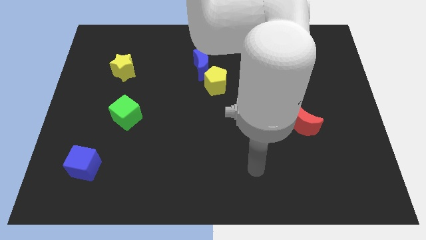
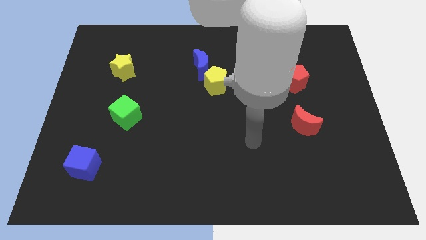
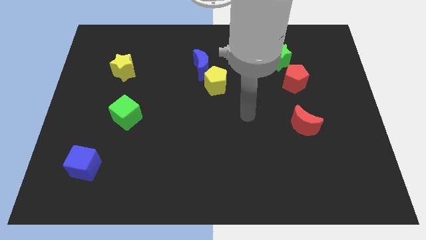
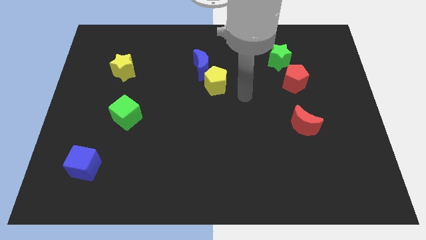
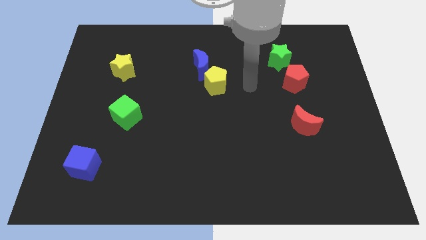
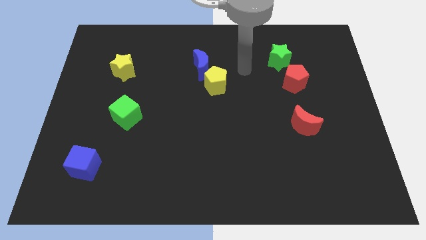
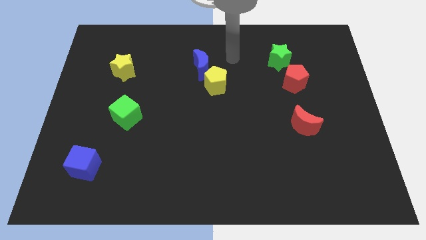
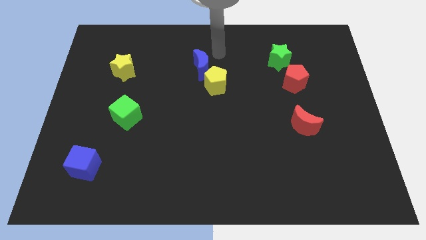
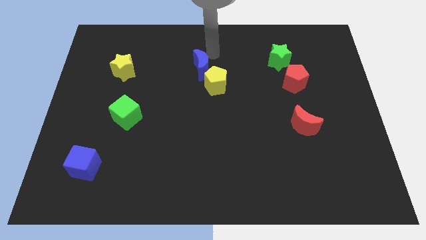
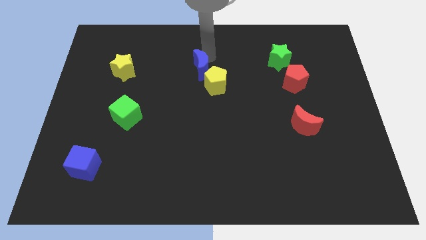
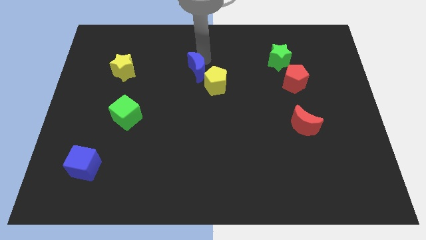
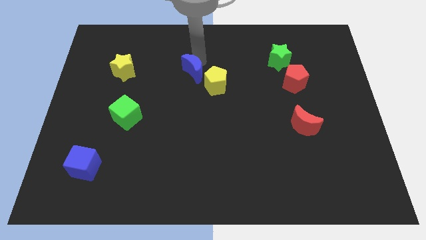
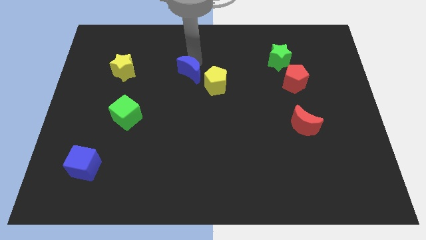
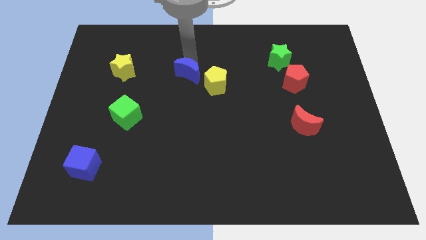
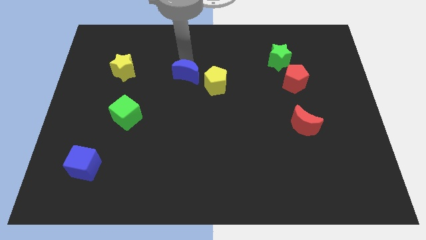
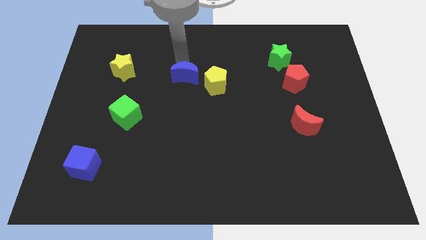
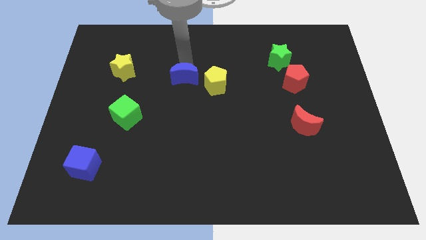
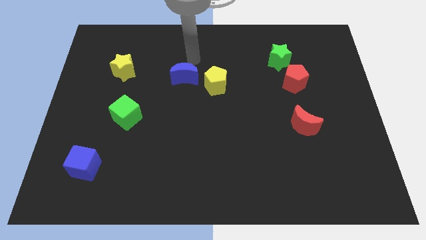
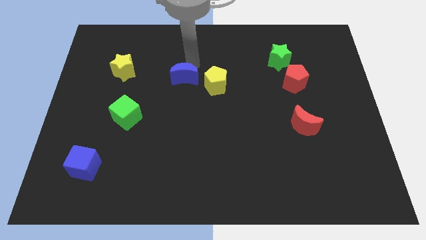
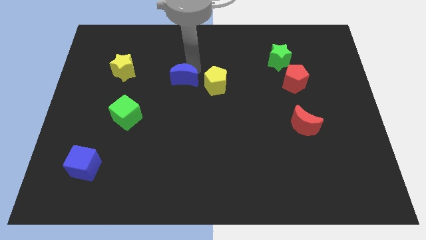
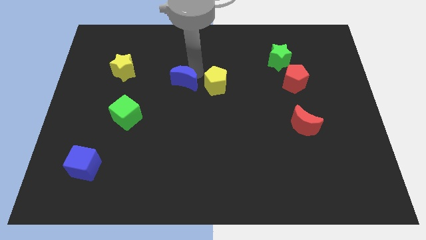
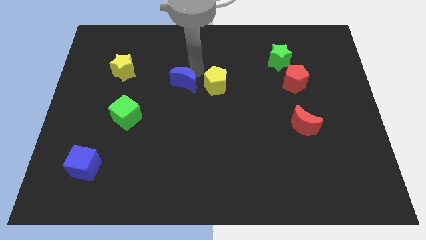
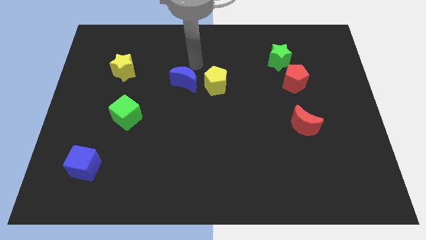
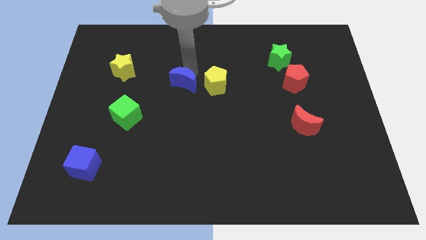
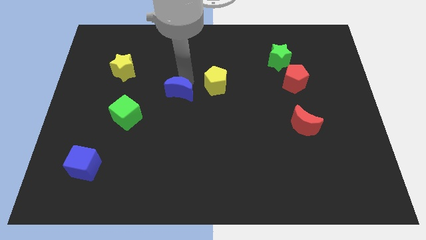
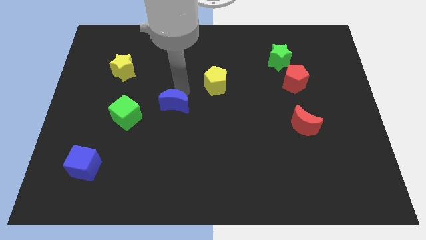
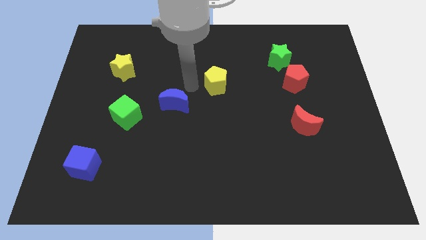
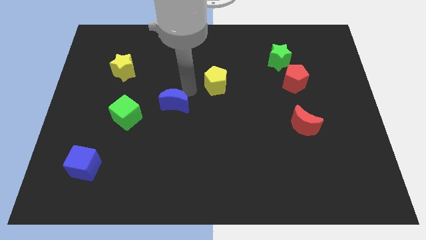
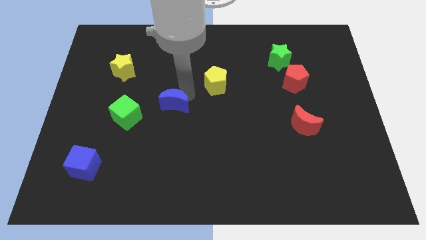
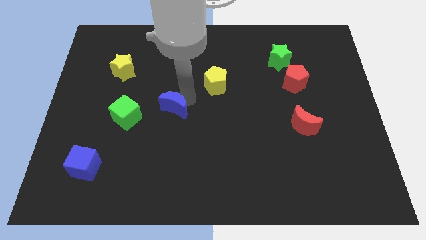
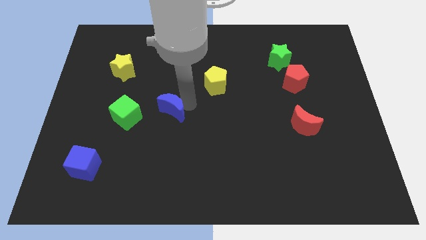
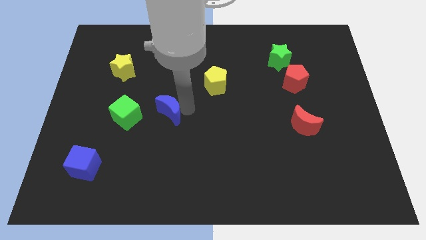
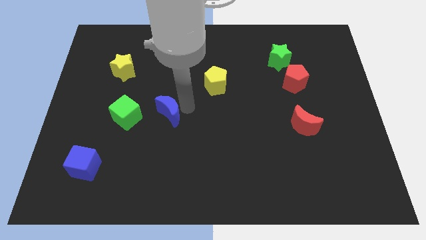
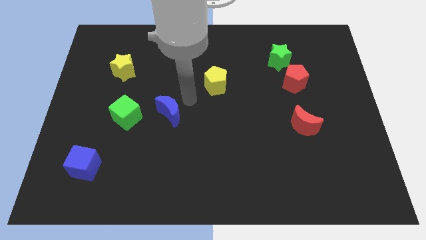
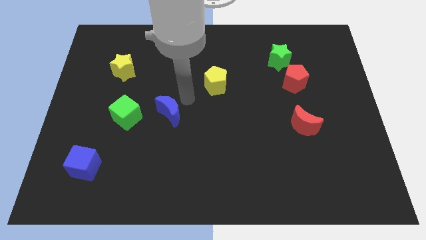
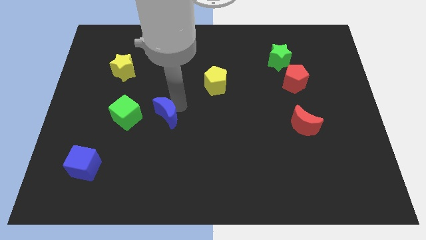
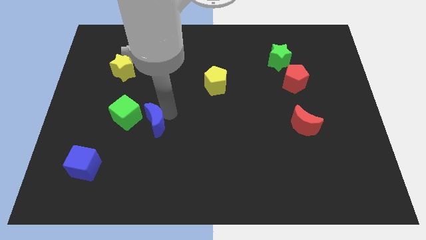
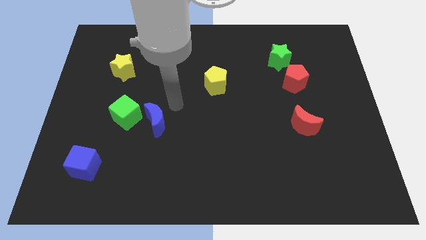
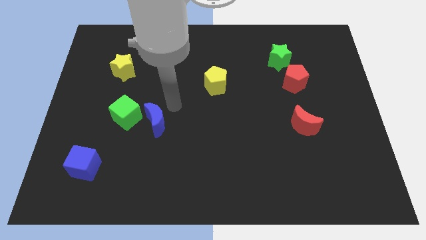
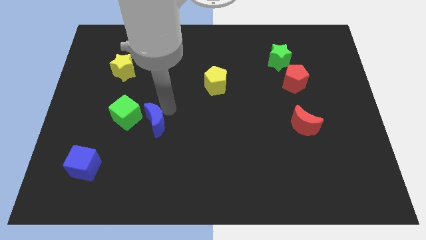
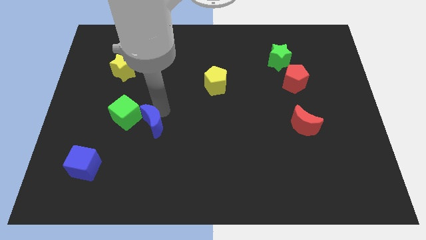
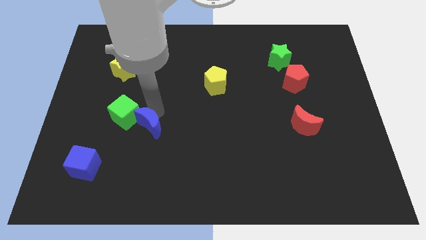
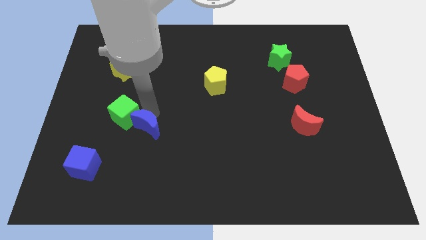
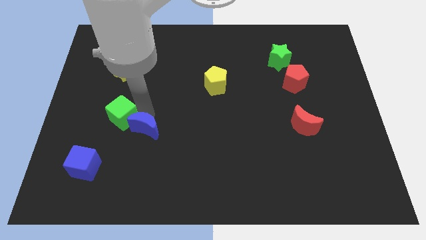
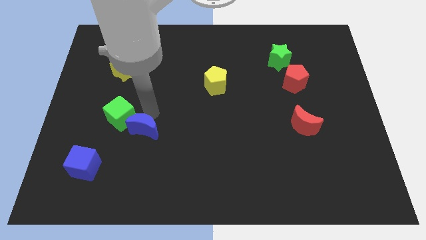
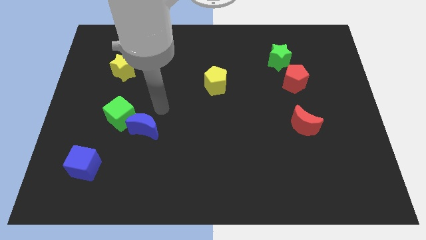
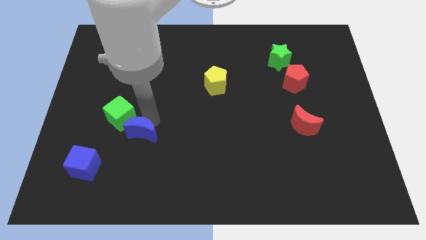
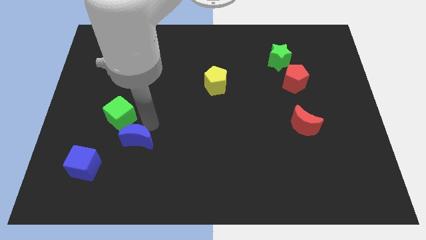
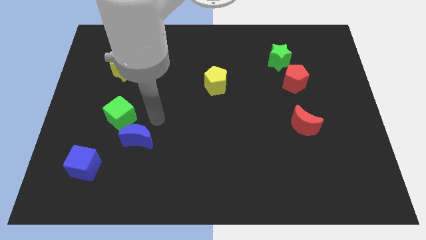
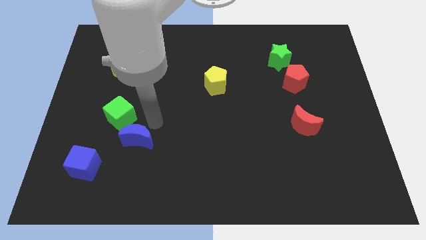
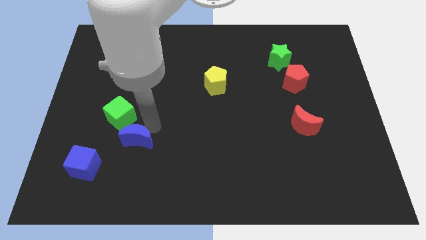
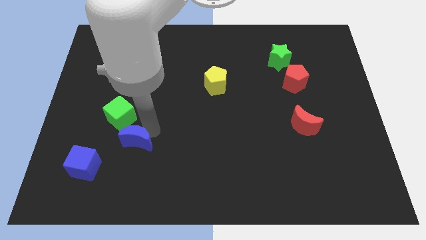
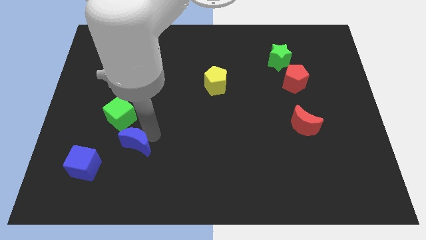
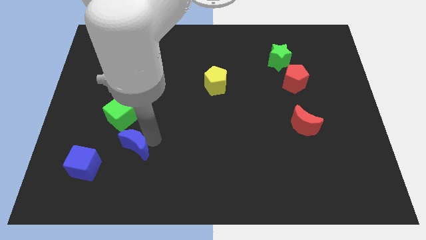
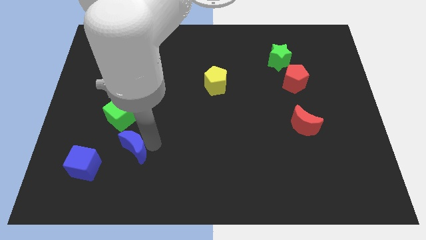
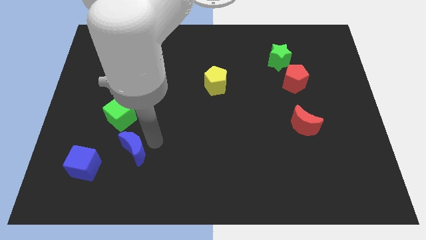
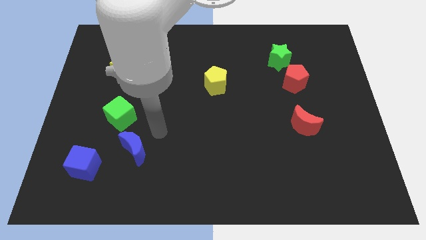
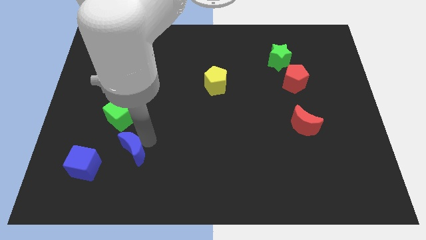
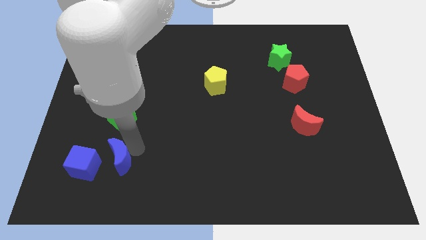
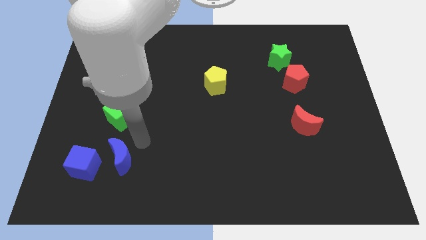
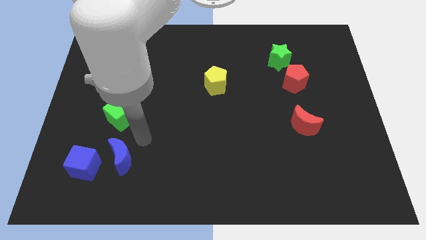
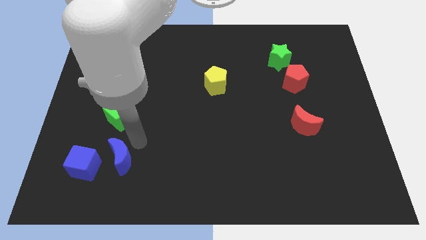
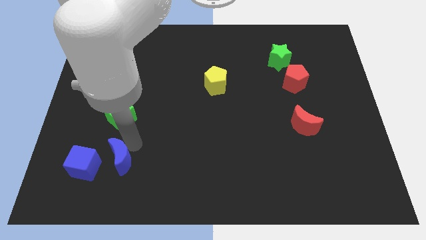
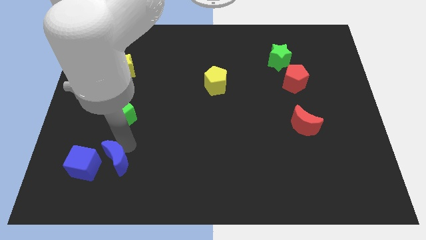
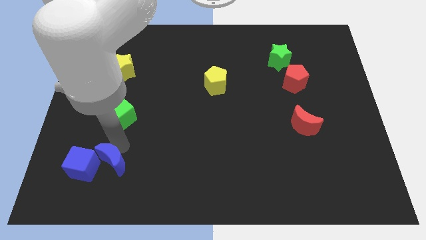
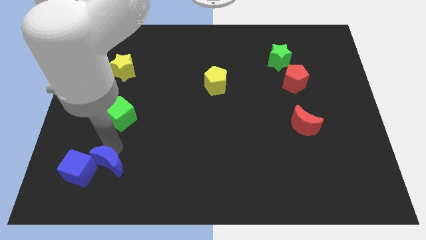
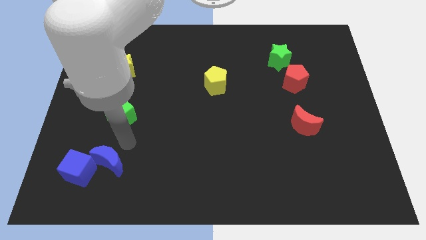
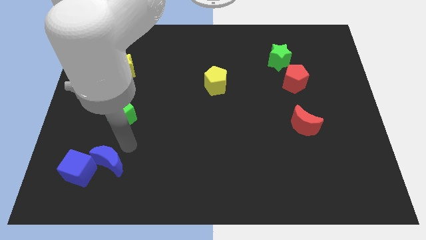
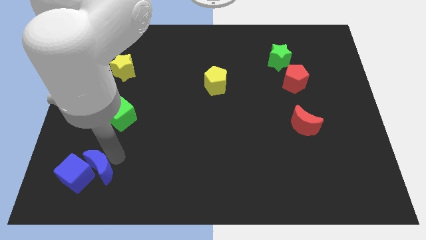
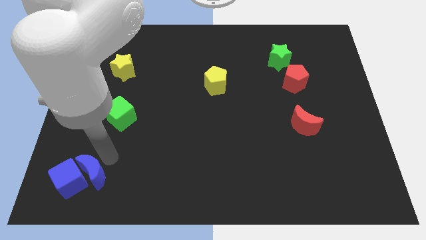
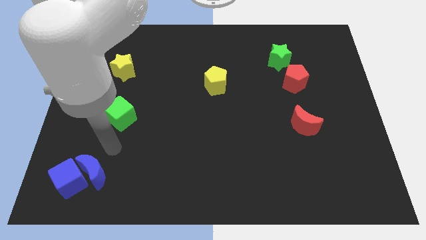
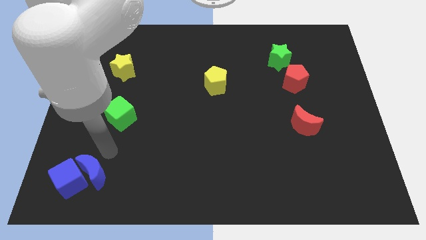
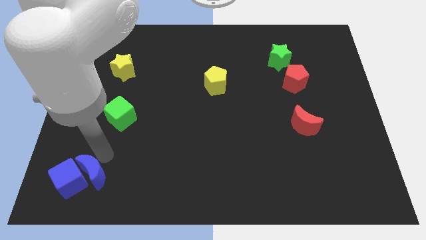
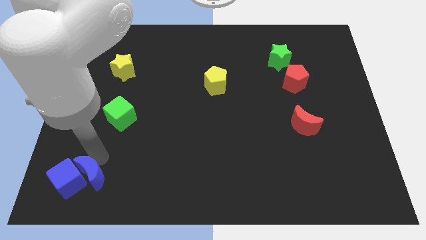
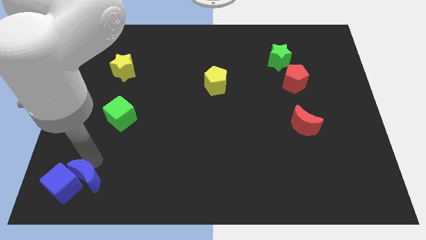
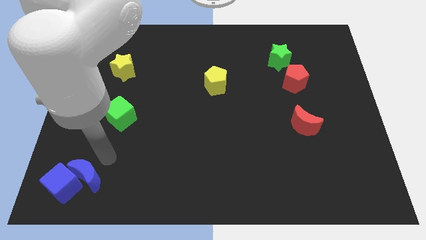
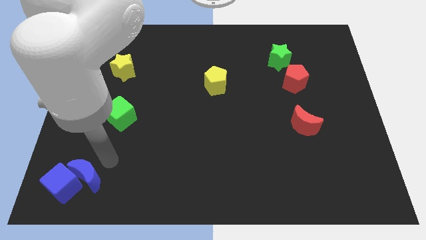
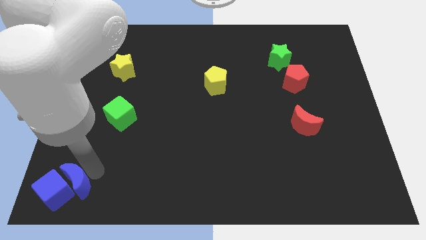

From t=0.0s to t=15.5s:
move the blue moon to the bottom left

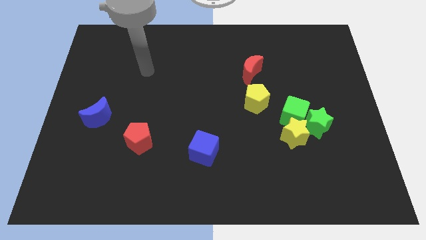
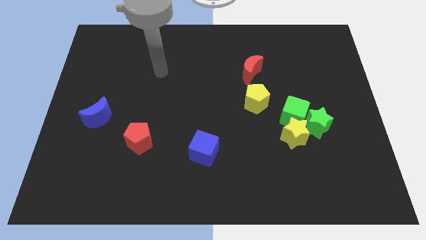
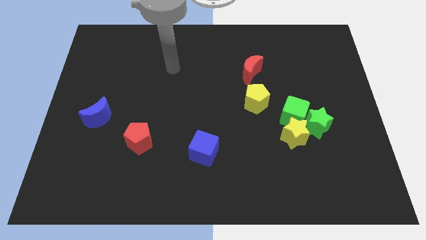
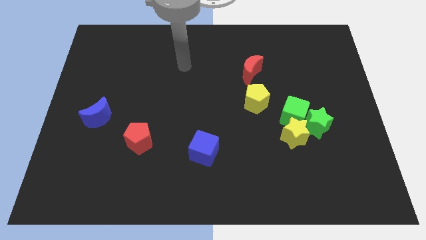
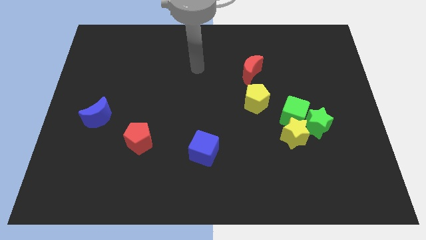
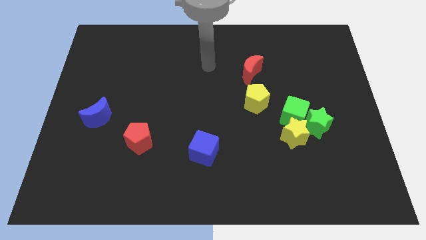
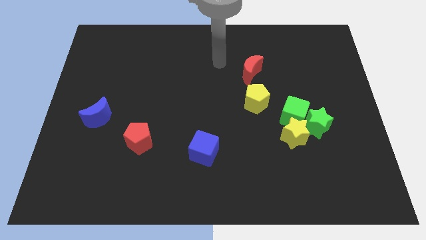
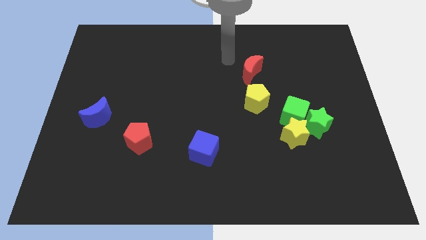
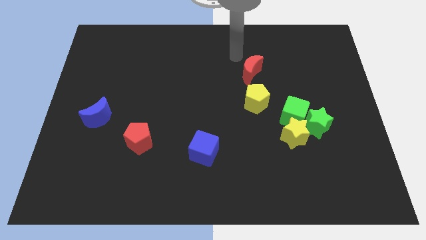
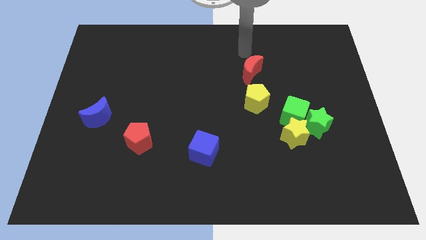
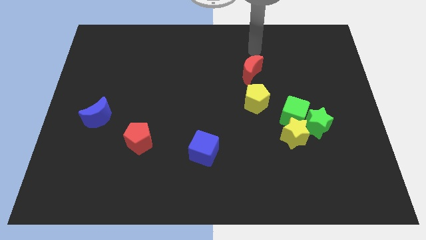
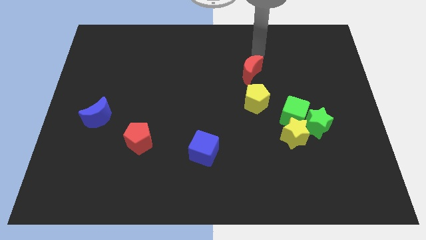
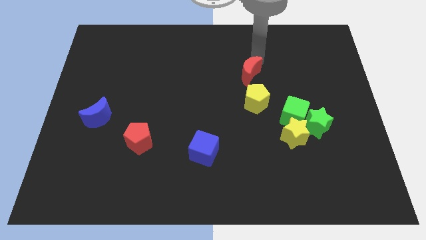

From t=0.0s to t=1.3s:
push the red moon to the middle of the board
